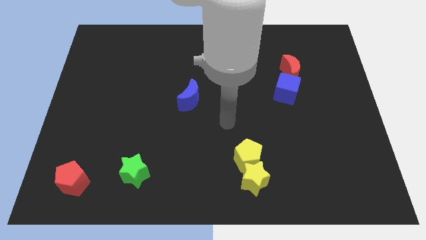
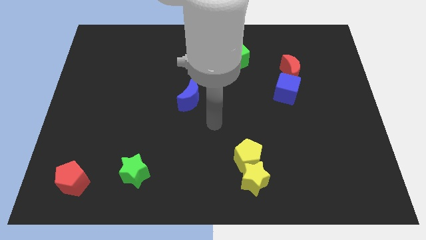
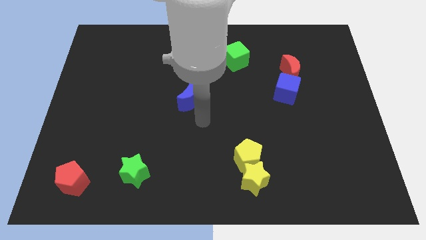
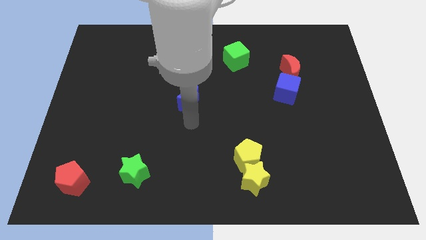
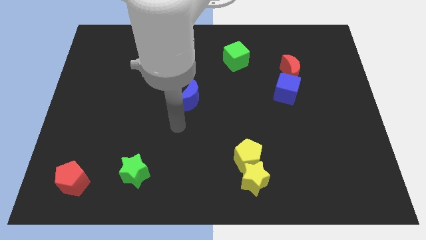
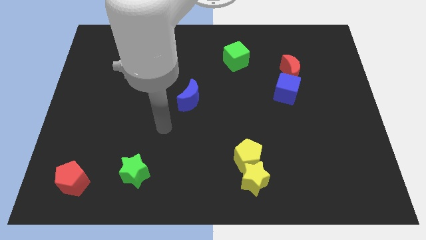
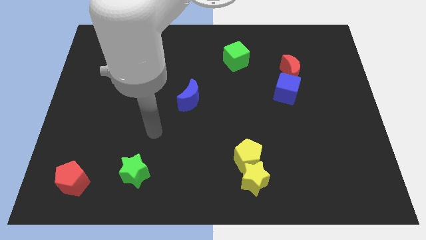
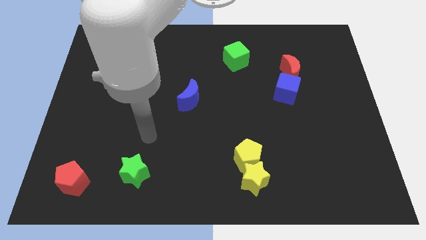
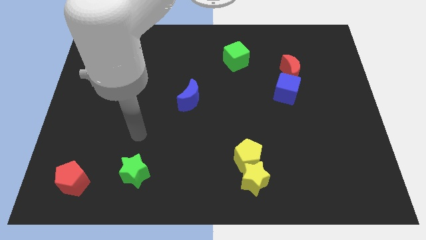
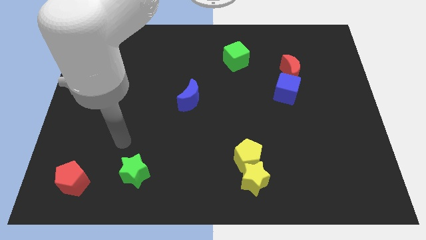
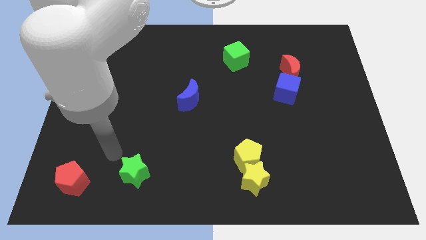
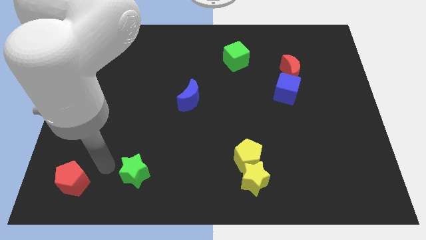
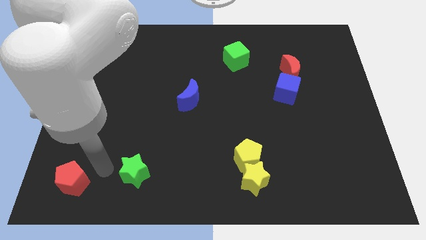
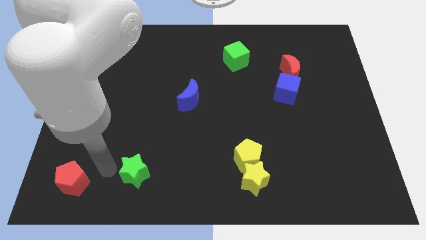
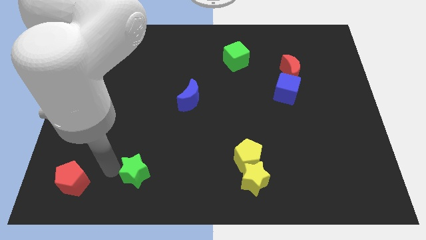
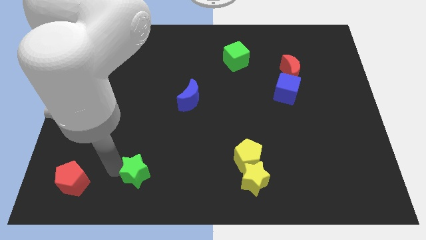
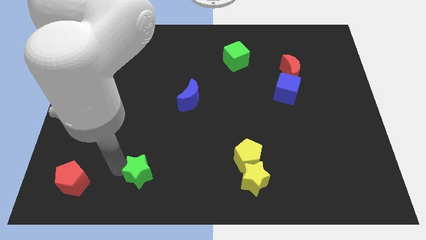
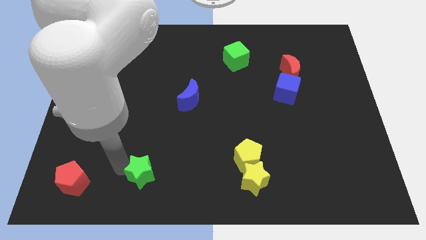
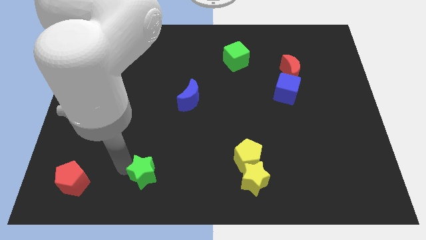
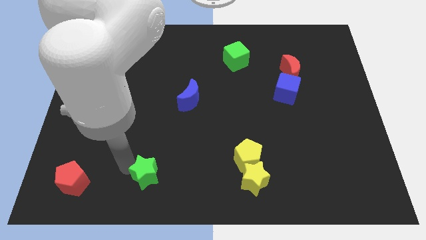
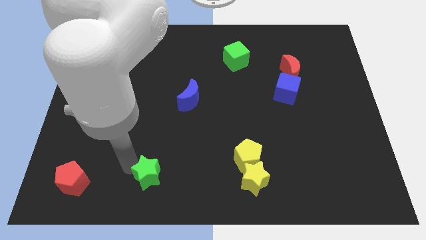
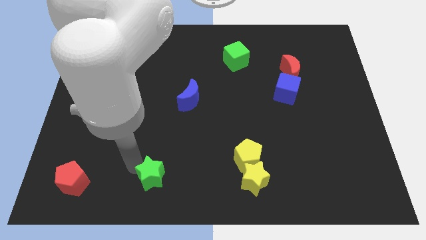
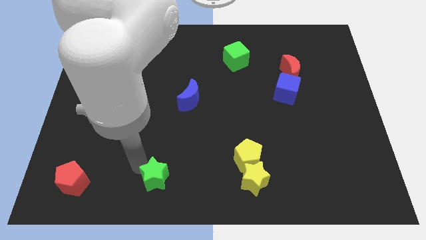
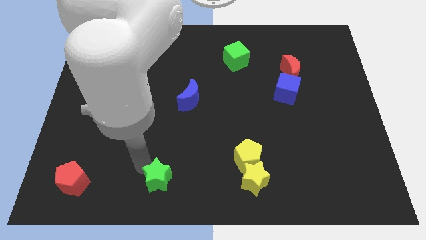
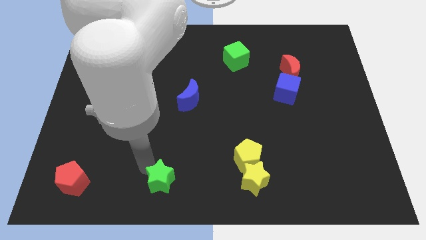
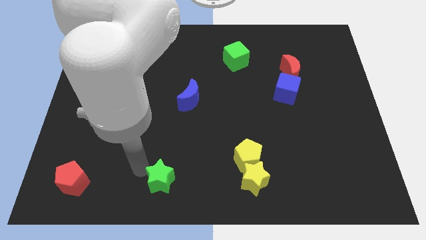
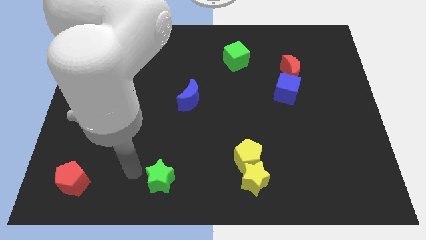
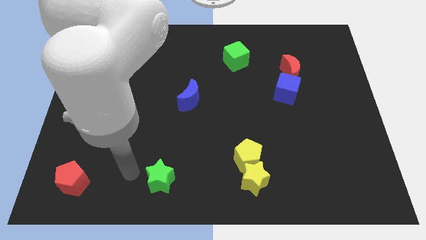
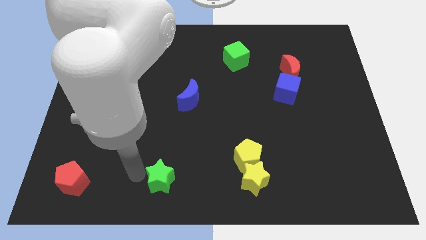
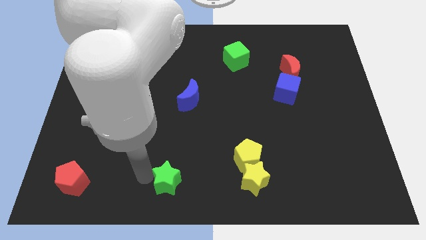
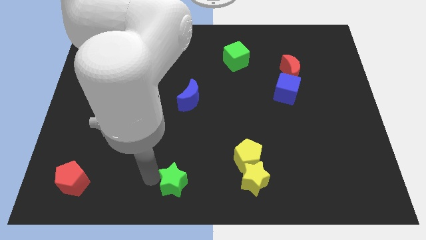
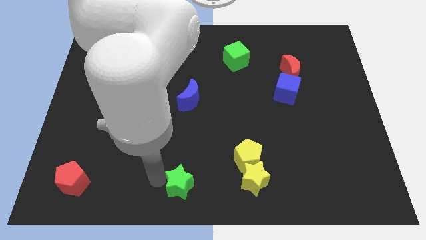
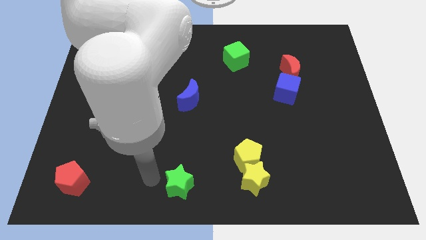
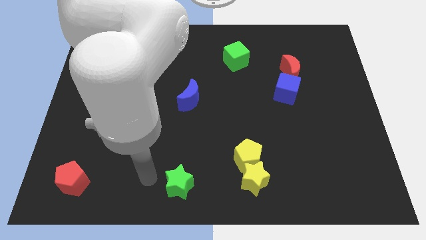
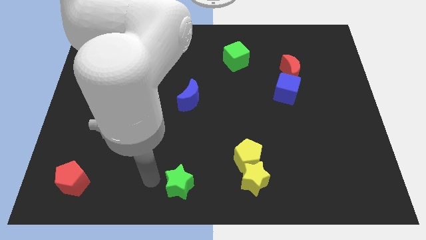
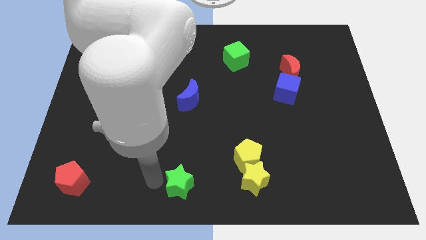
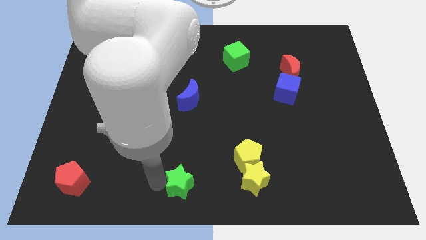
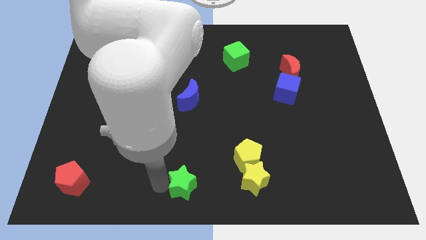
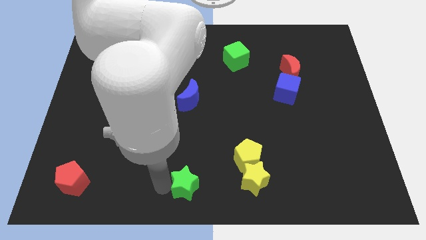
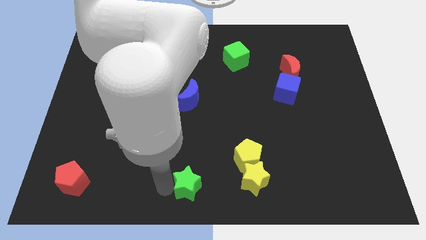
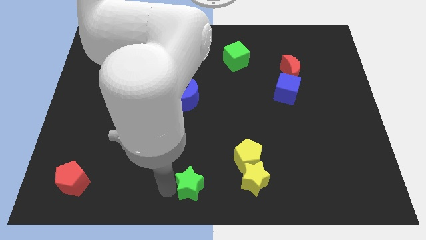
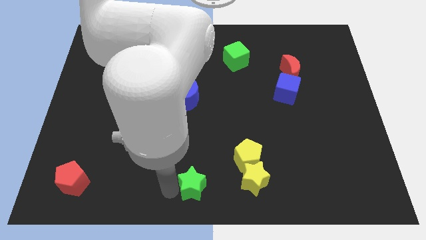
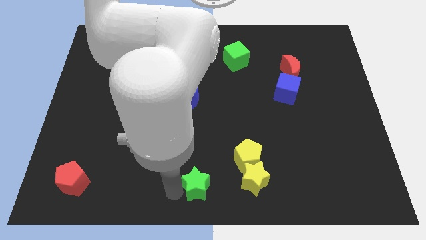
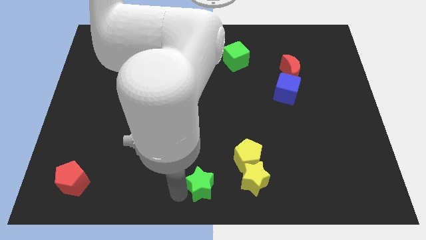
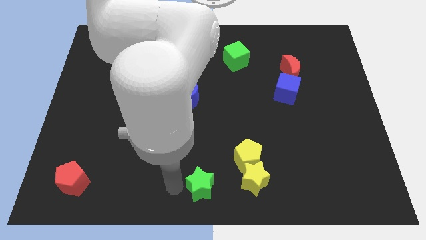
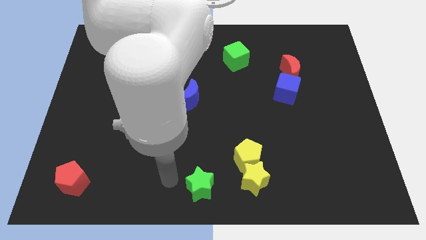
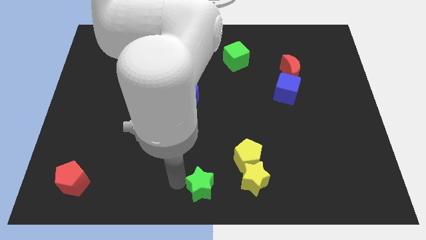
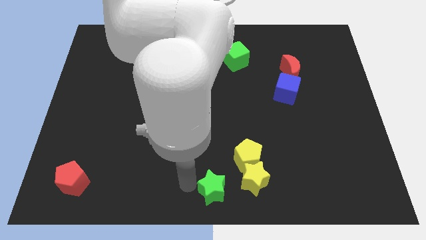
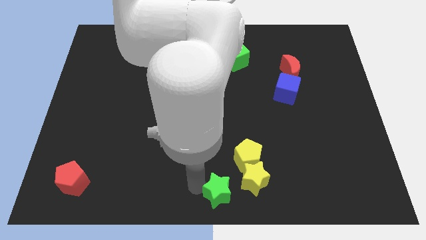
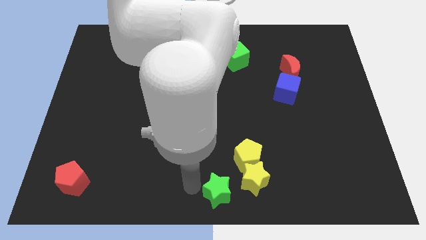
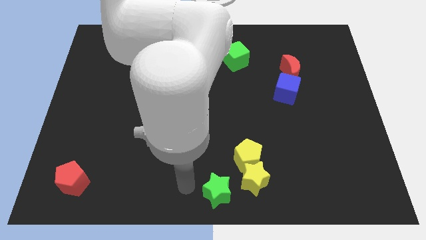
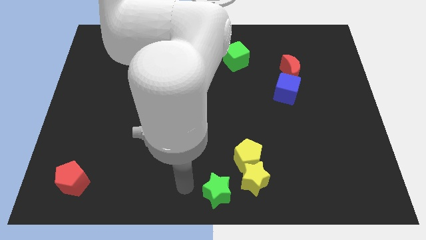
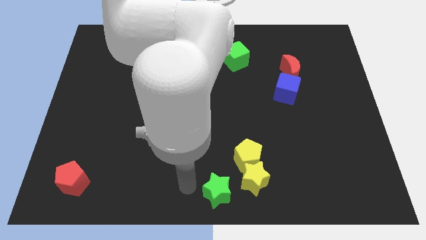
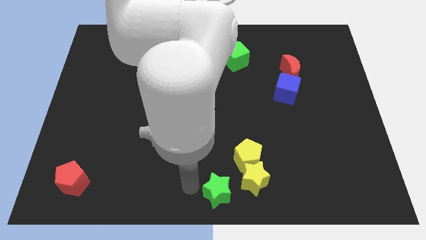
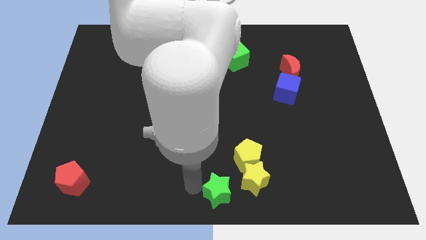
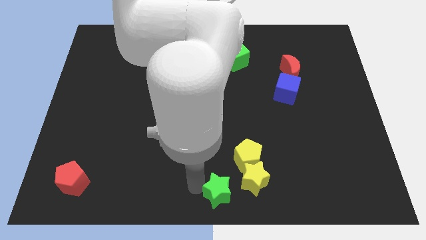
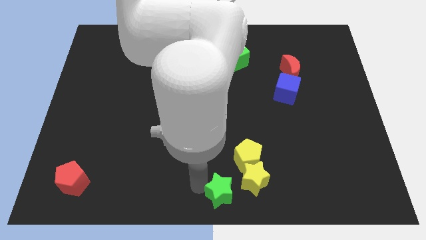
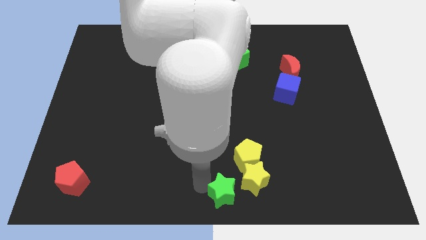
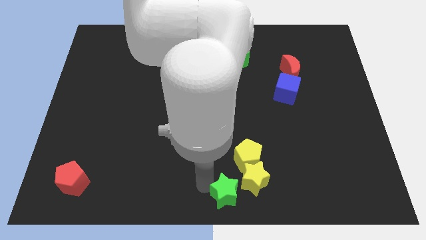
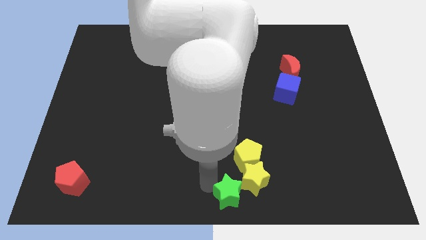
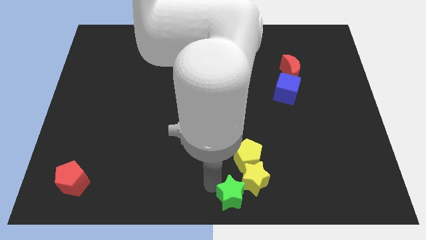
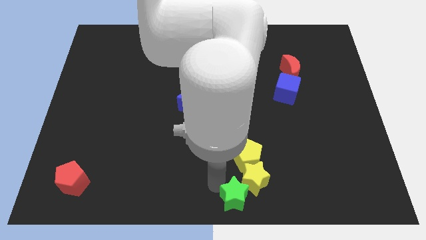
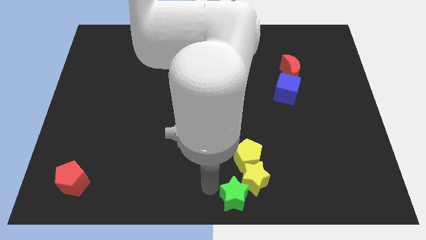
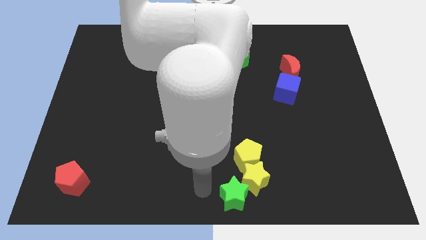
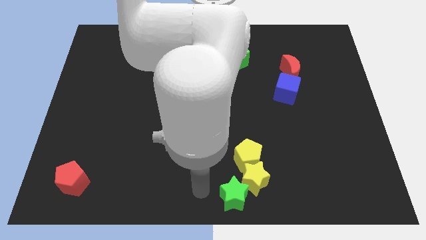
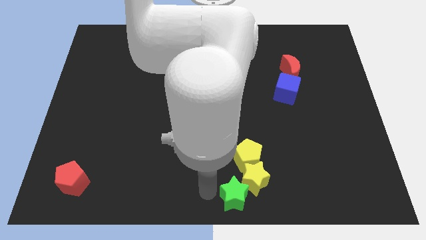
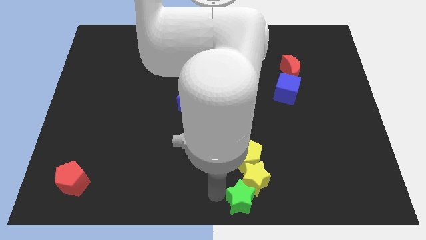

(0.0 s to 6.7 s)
move the green star to the right

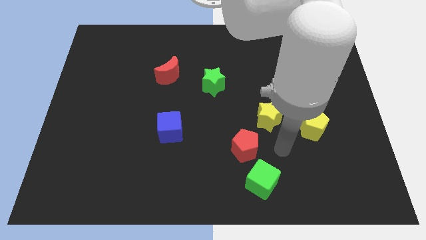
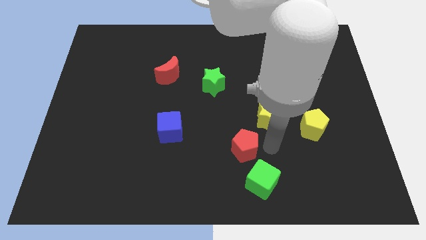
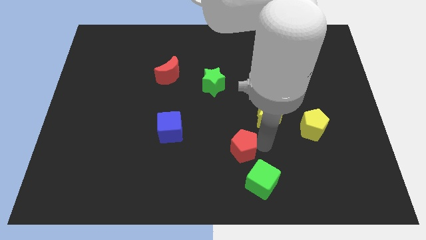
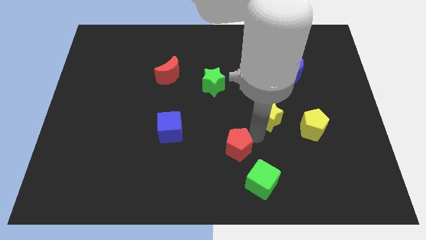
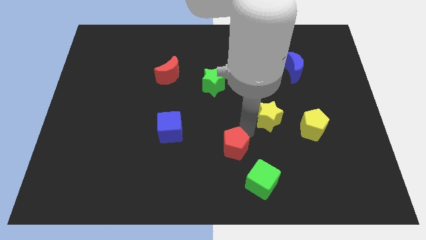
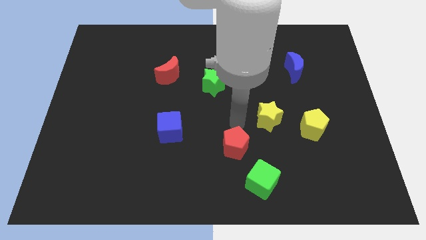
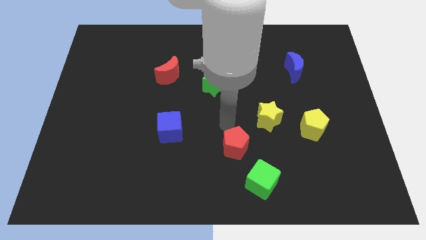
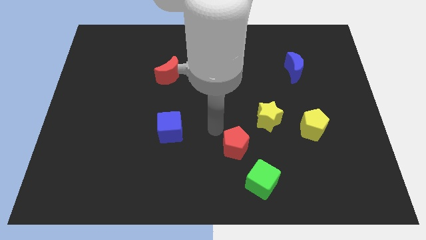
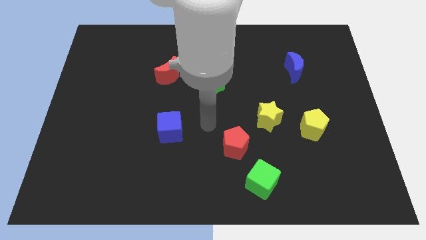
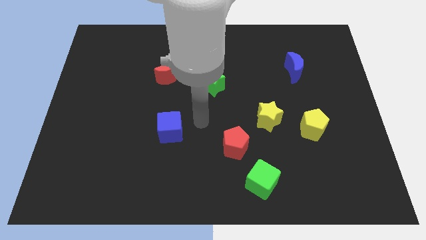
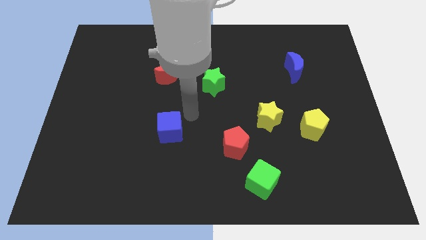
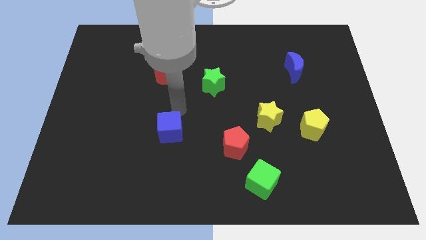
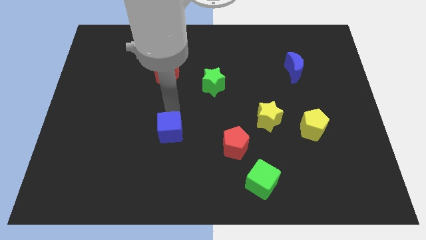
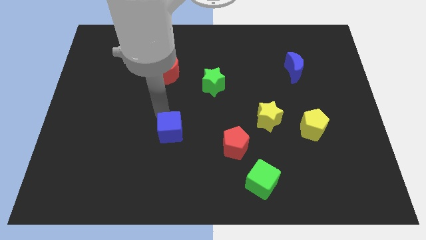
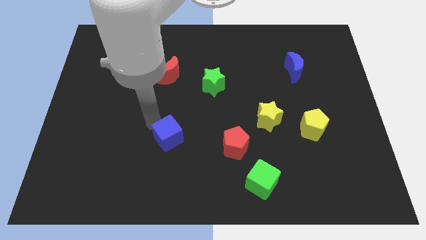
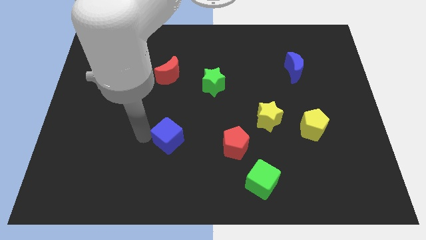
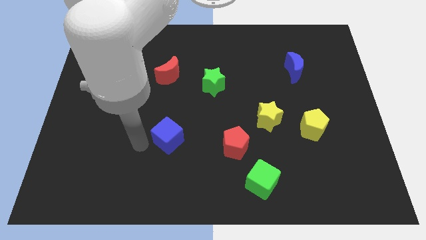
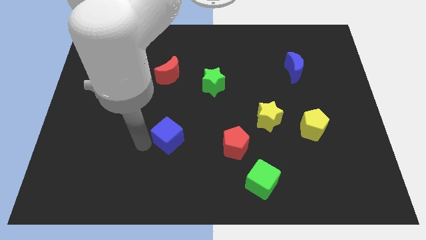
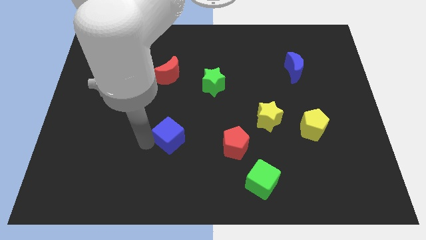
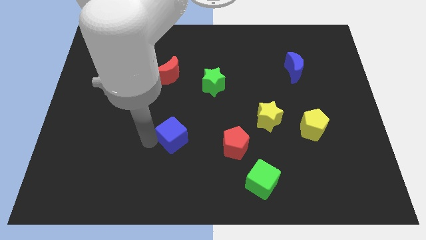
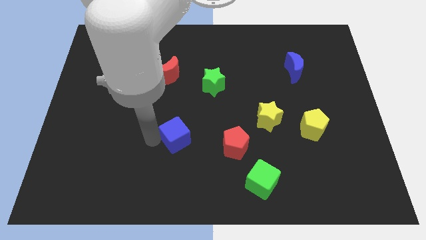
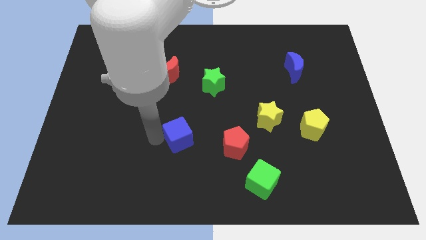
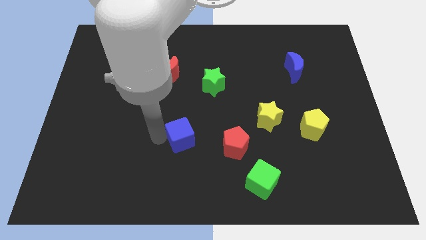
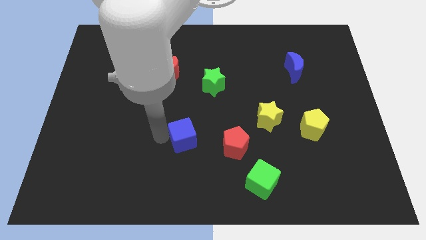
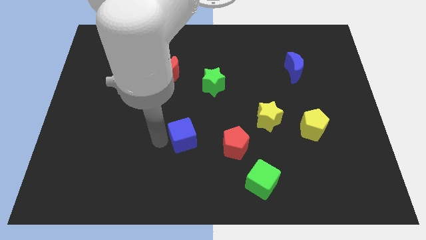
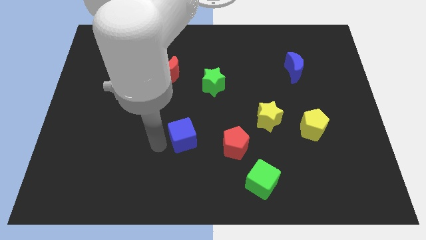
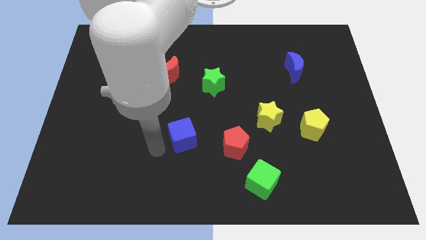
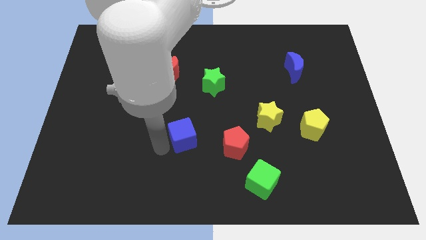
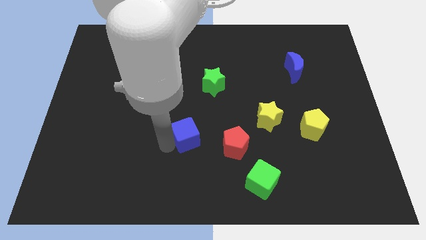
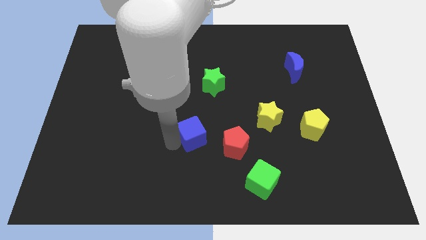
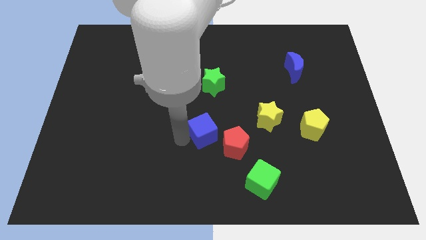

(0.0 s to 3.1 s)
slightly slide the blue cube to the right
